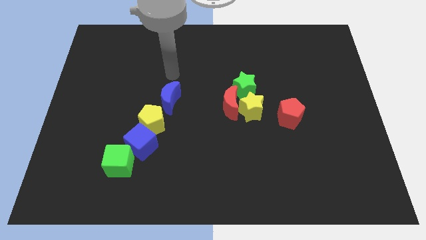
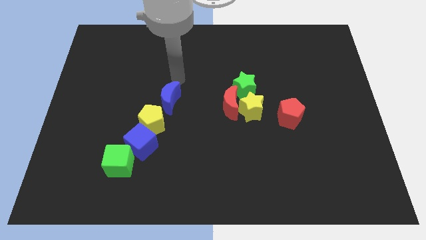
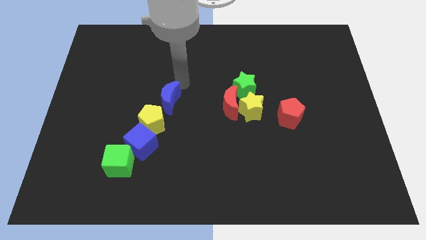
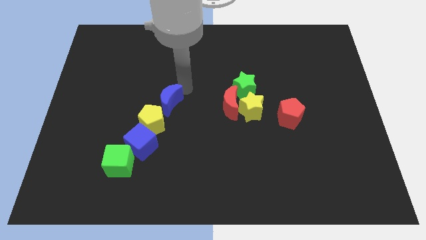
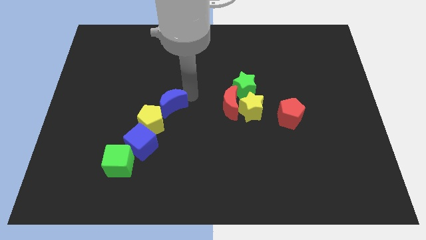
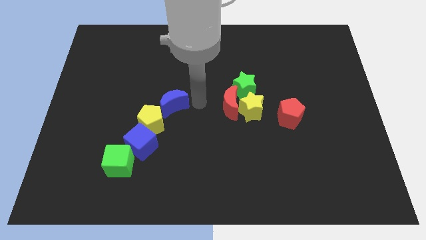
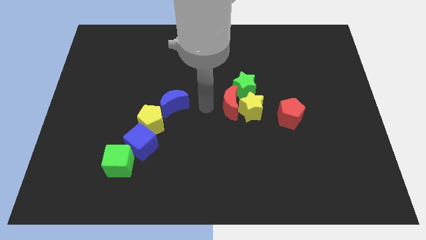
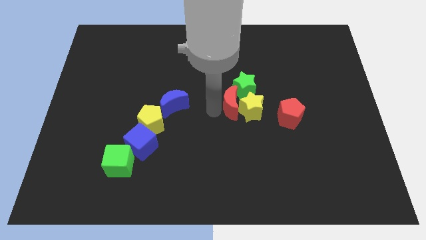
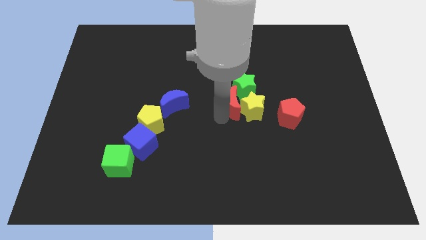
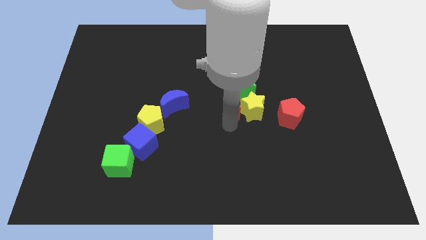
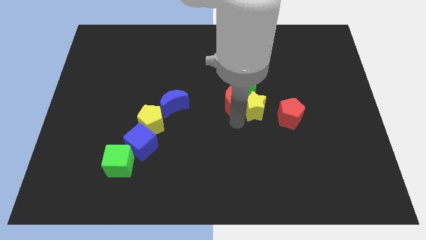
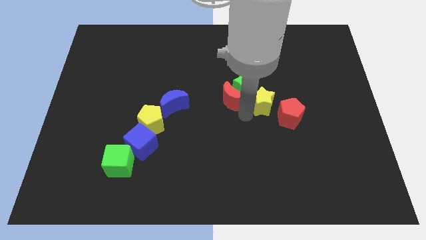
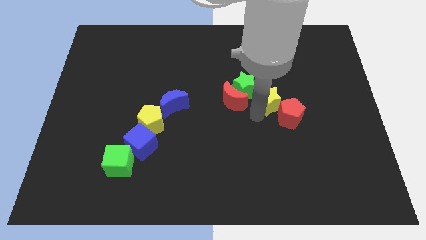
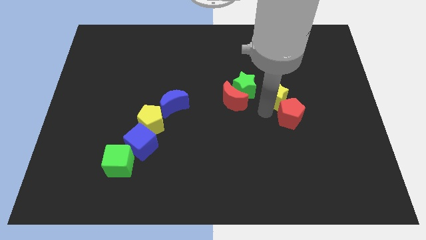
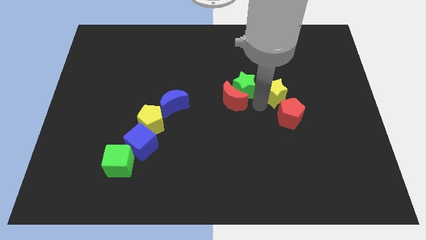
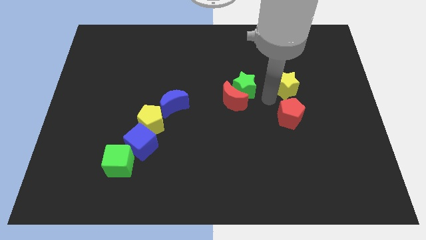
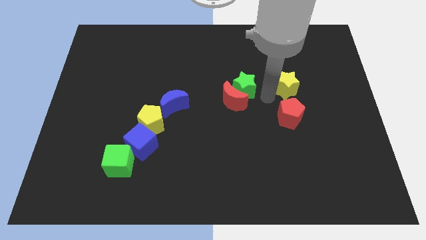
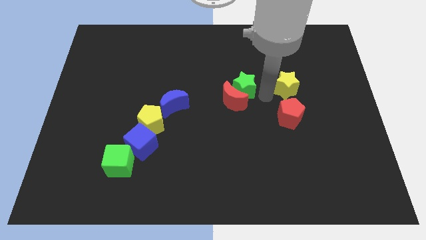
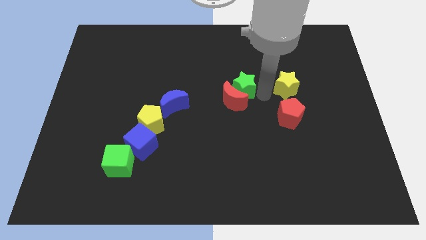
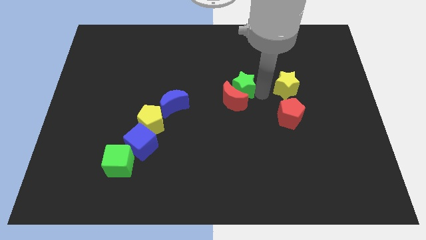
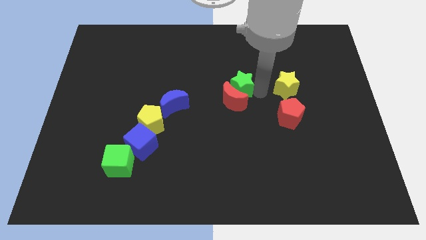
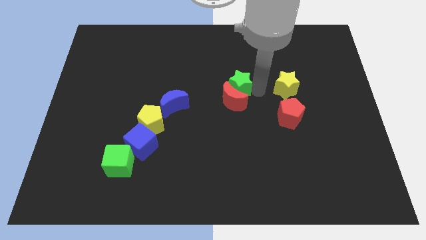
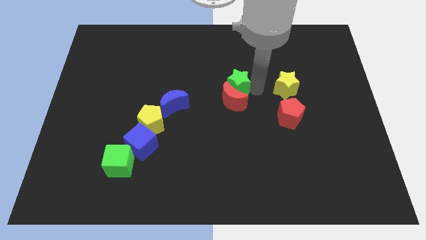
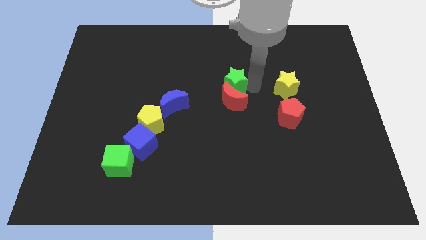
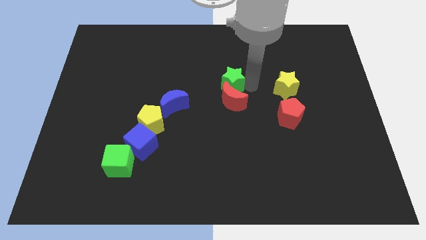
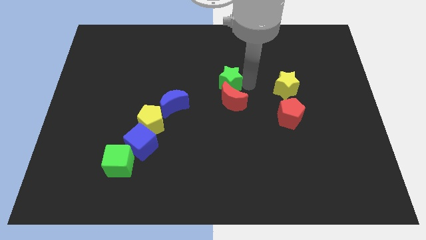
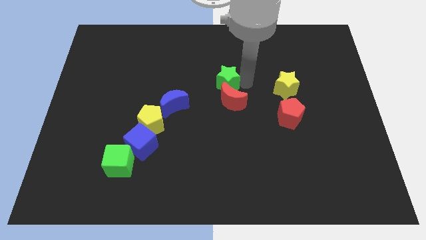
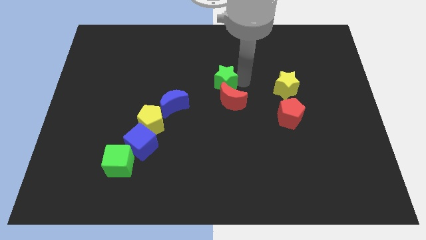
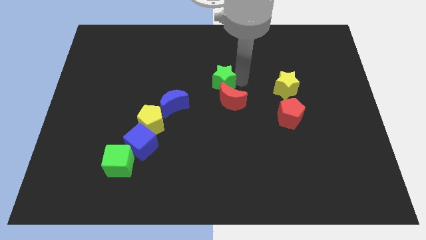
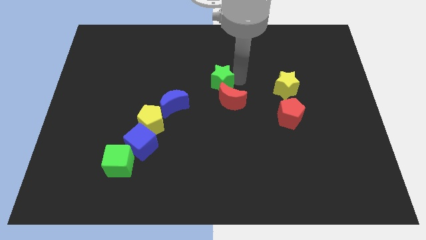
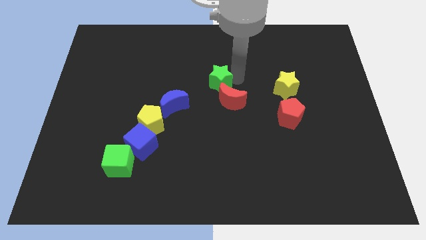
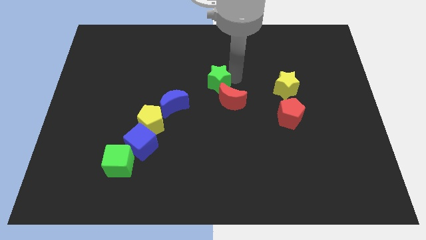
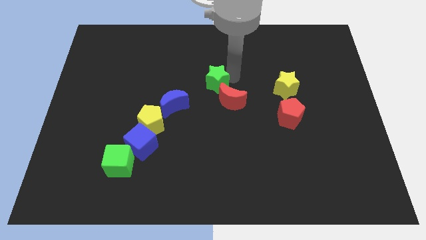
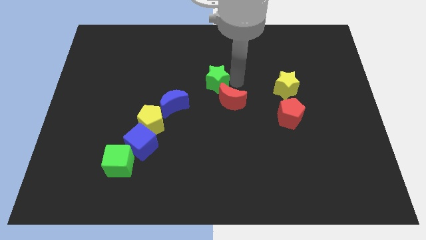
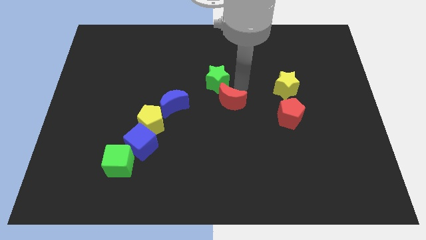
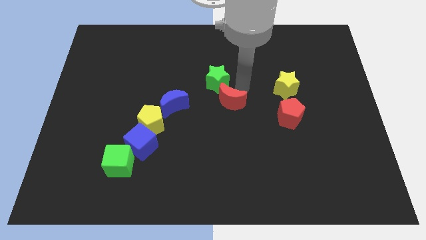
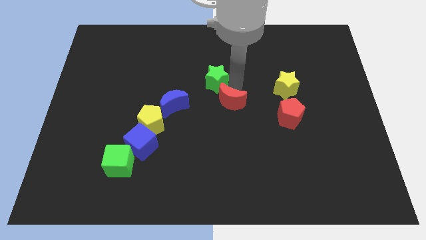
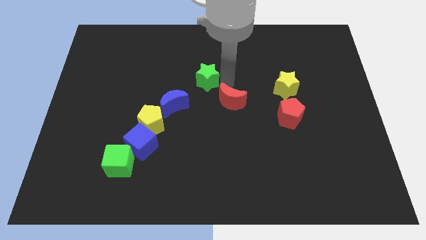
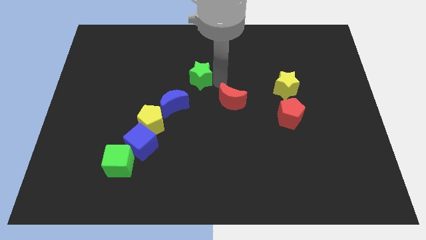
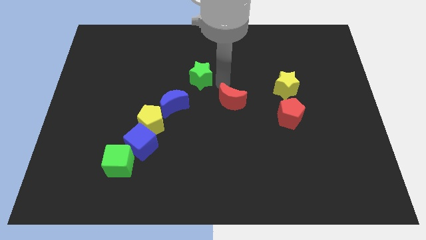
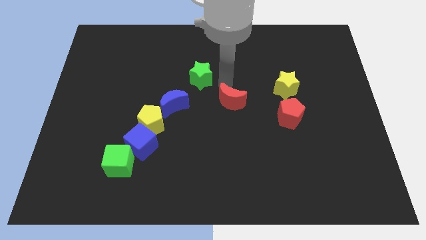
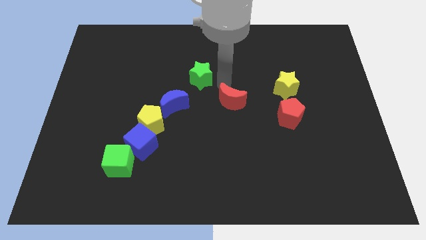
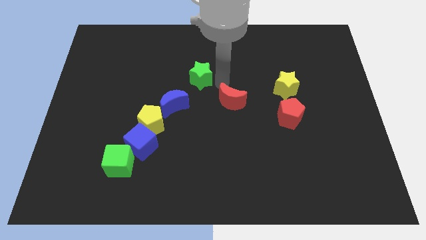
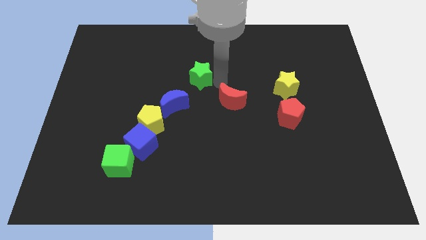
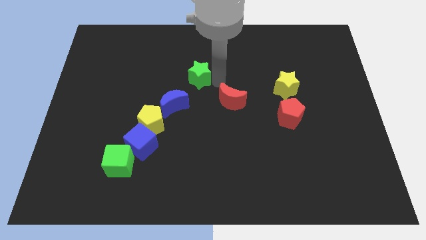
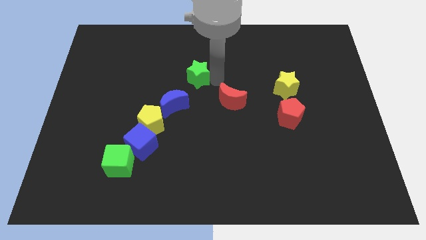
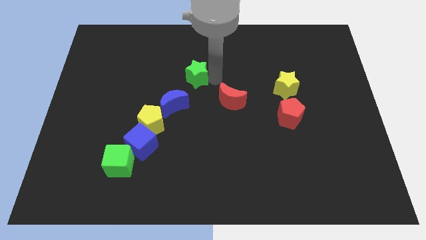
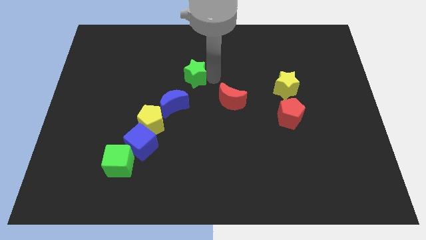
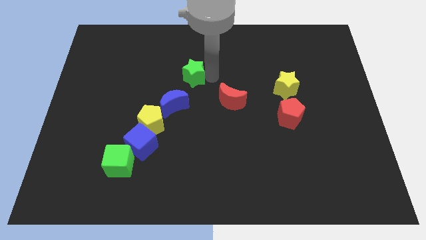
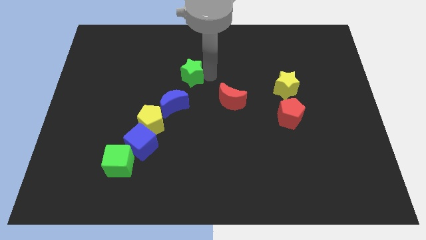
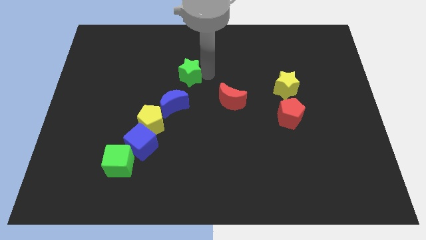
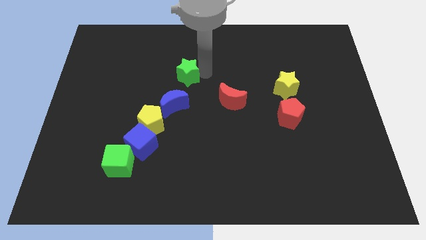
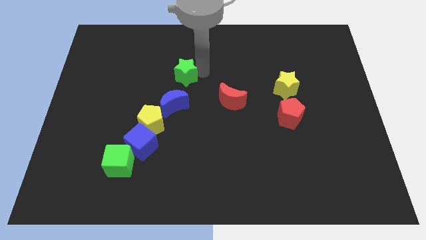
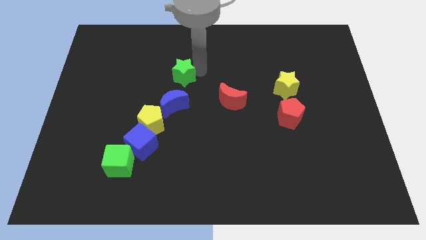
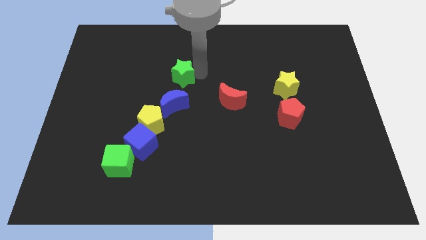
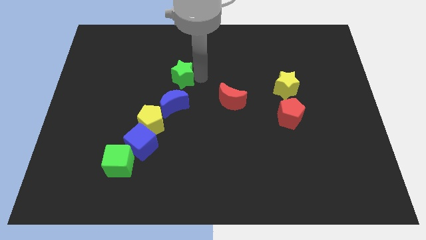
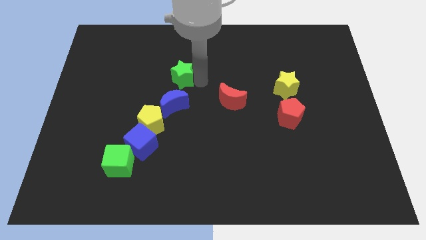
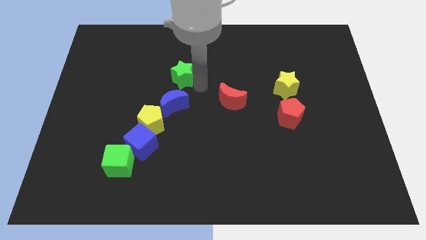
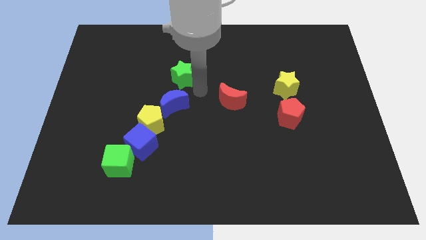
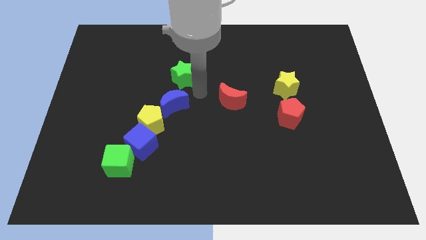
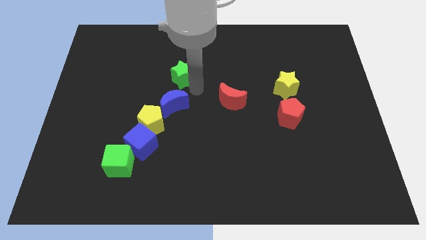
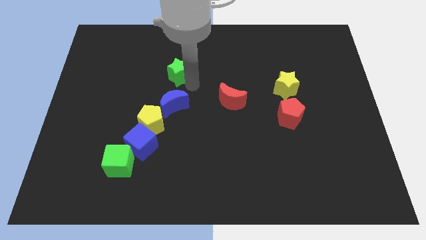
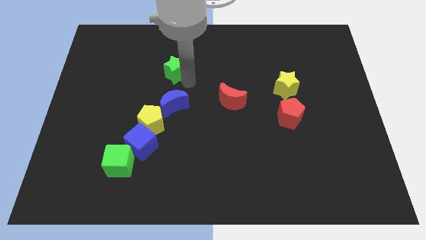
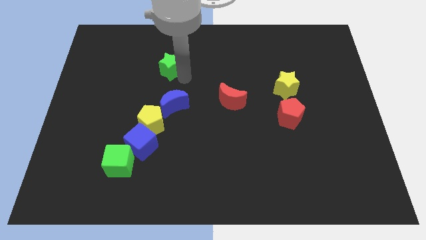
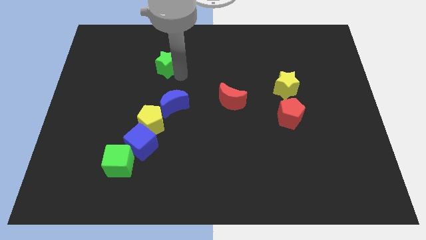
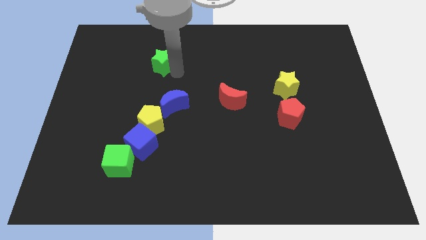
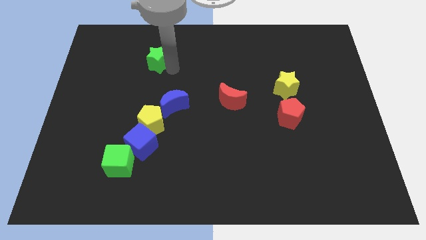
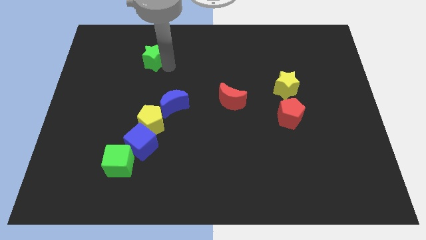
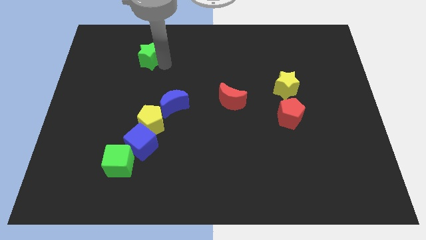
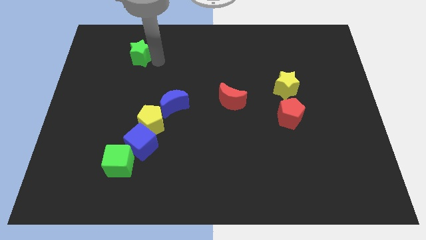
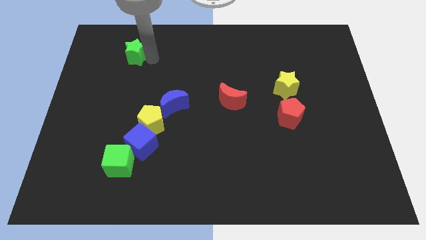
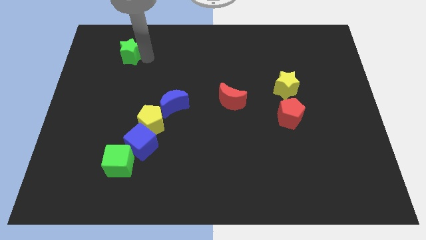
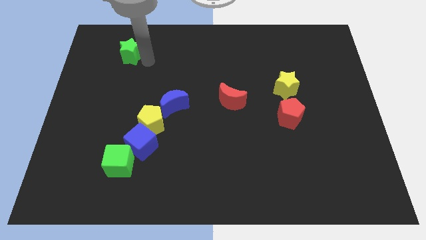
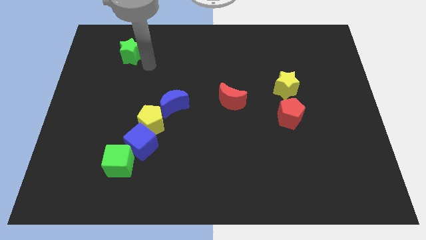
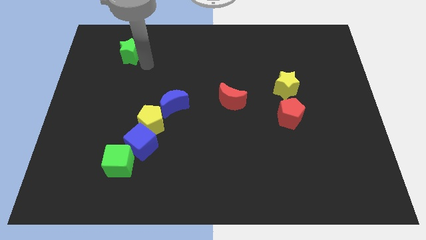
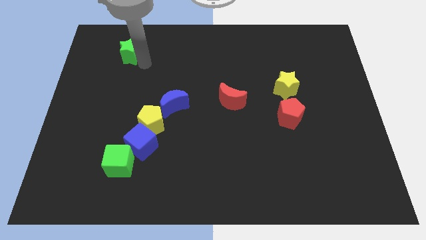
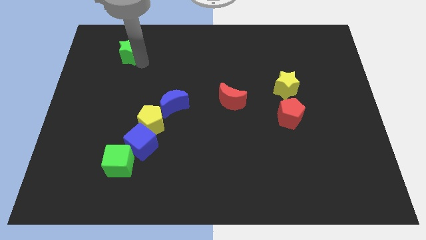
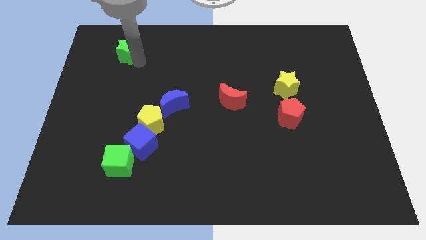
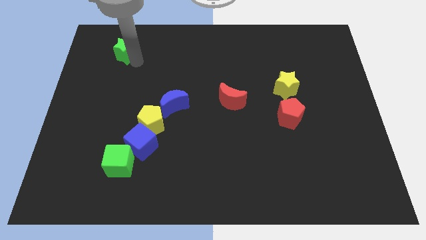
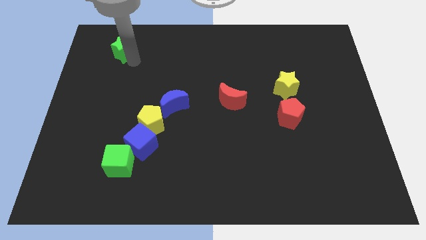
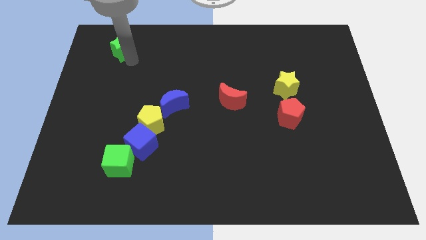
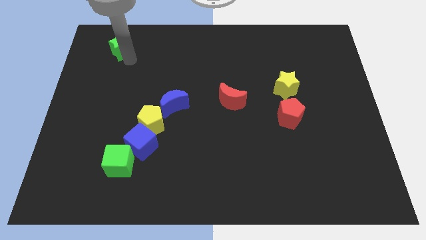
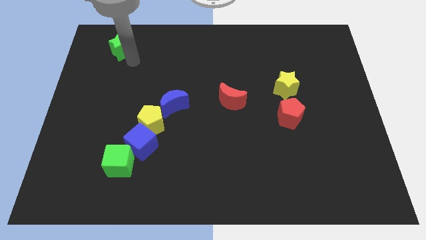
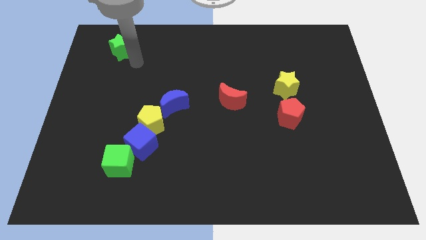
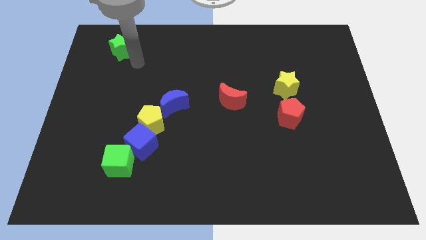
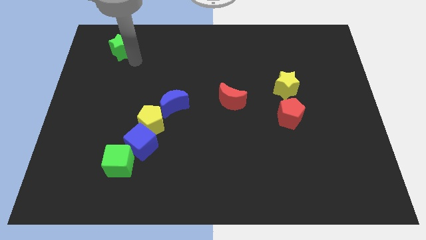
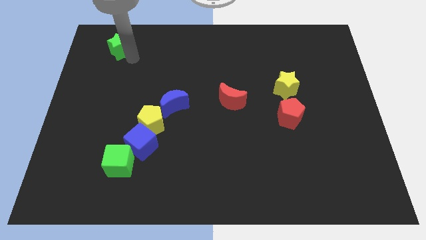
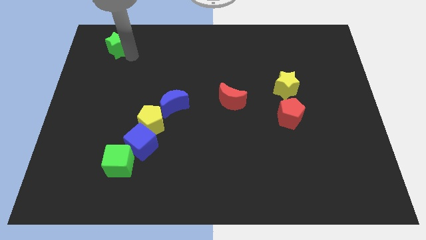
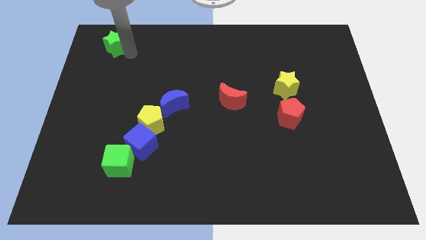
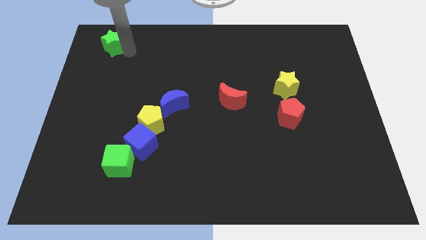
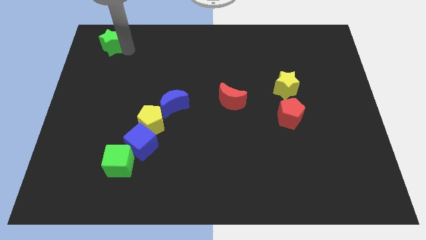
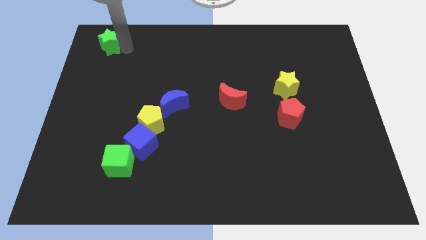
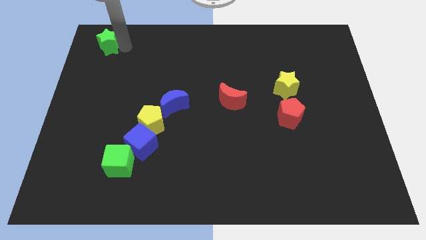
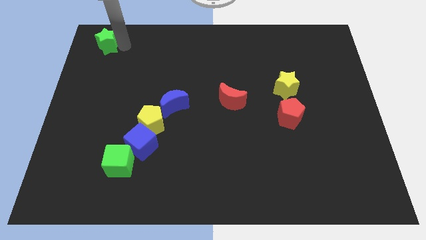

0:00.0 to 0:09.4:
move the green star to the top left corner
